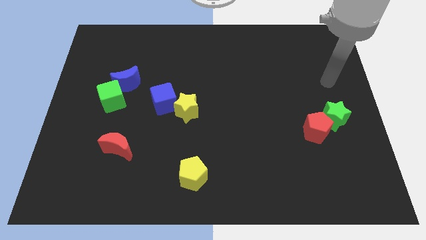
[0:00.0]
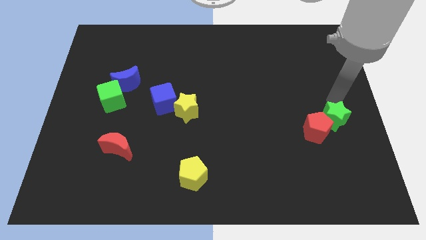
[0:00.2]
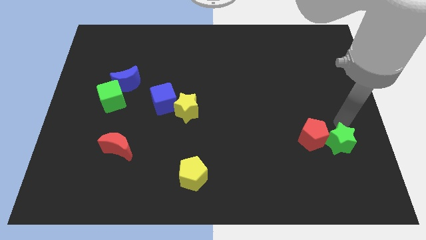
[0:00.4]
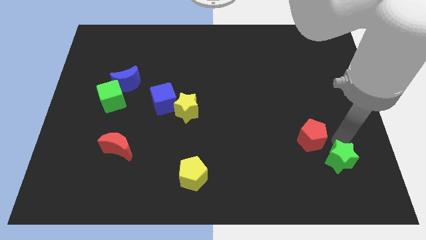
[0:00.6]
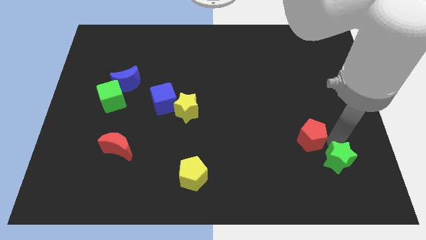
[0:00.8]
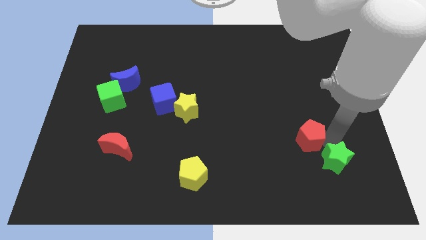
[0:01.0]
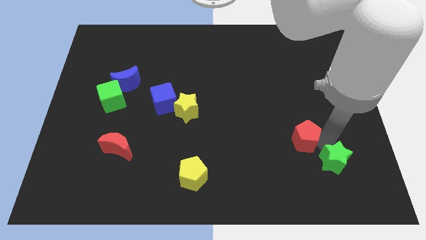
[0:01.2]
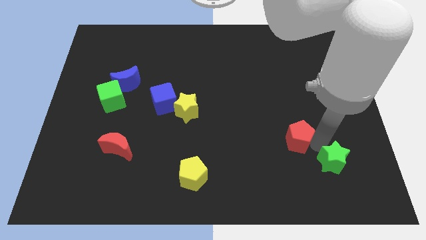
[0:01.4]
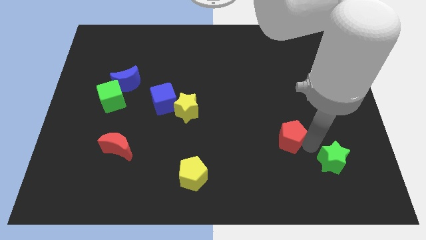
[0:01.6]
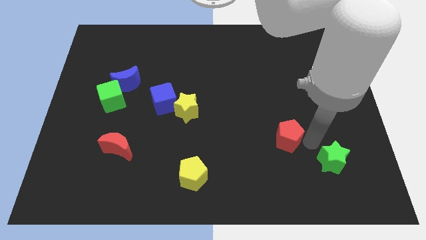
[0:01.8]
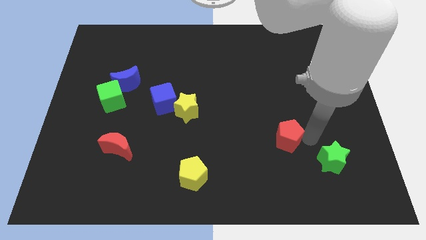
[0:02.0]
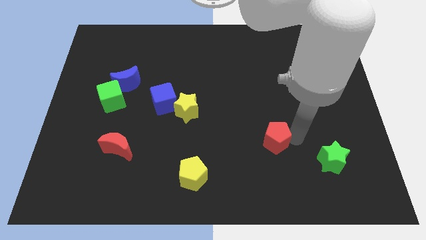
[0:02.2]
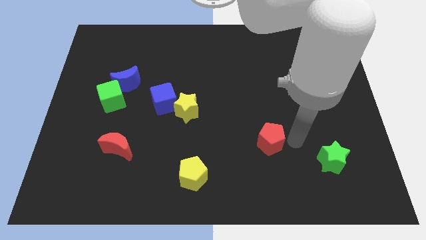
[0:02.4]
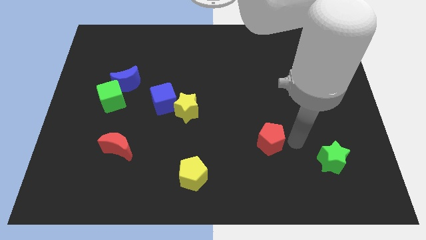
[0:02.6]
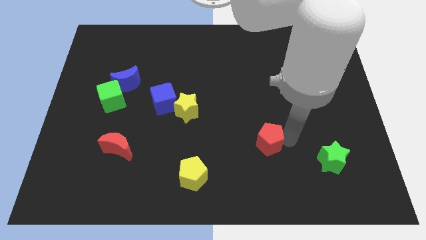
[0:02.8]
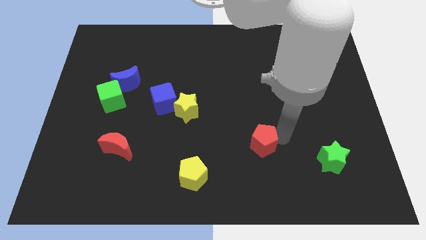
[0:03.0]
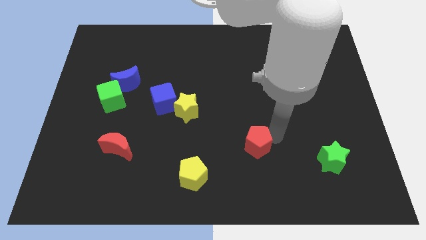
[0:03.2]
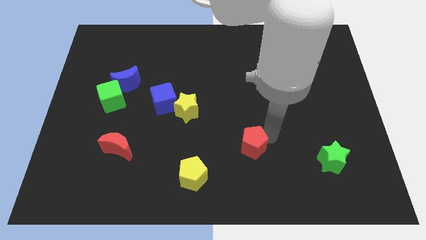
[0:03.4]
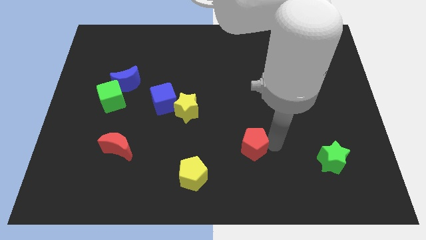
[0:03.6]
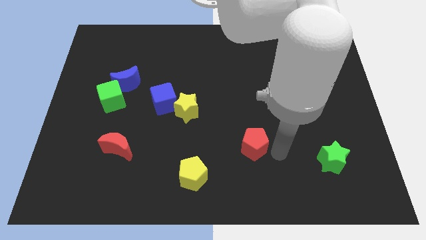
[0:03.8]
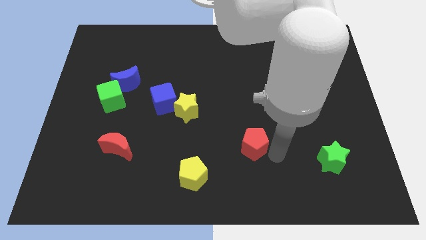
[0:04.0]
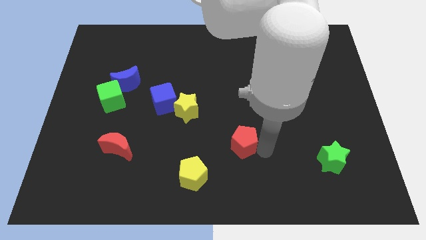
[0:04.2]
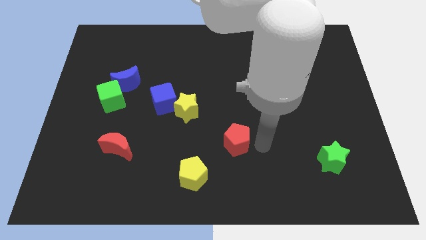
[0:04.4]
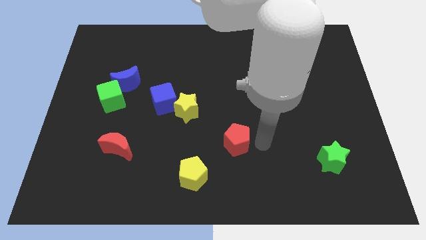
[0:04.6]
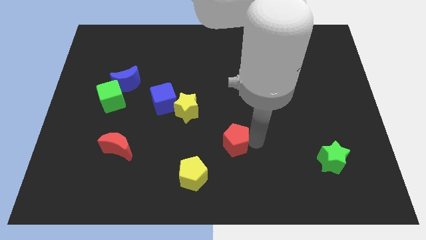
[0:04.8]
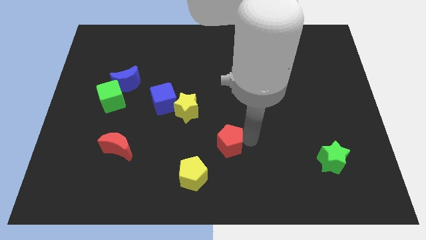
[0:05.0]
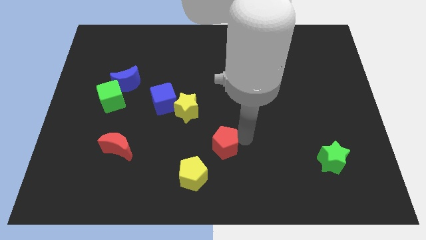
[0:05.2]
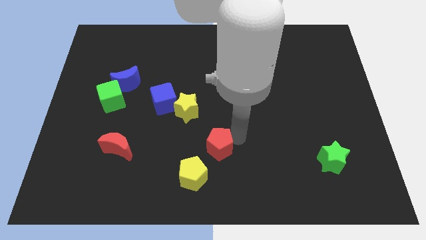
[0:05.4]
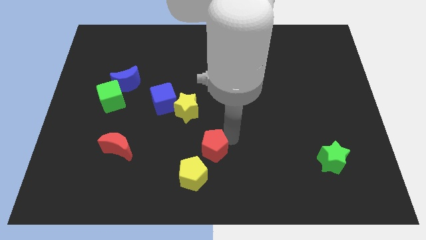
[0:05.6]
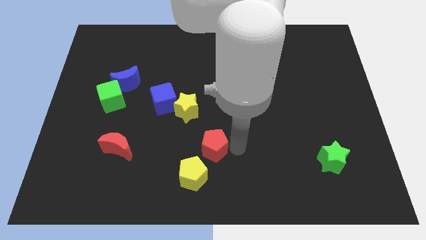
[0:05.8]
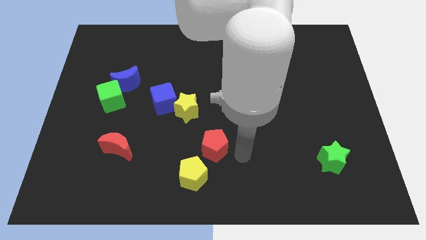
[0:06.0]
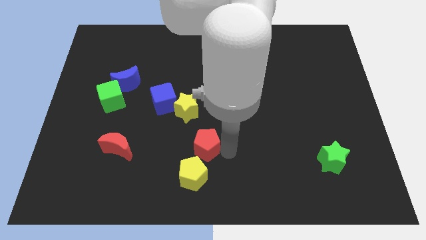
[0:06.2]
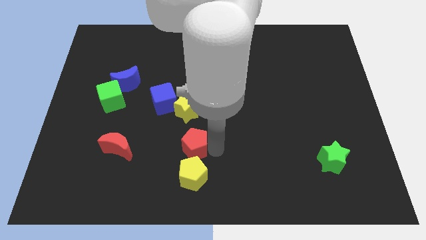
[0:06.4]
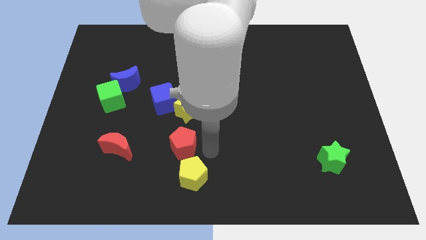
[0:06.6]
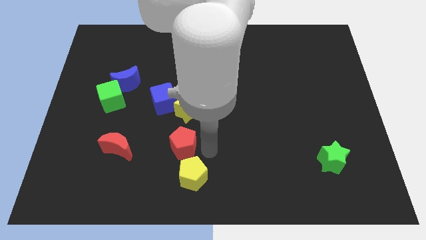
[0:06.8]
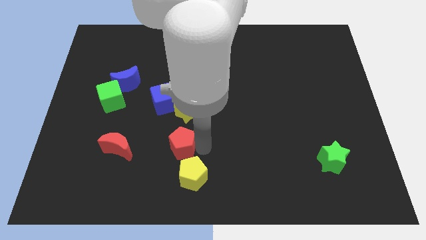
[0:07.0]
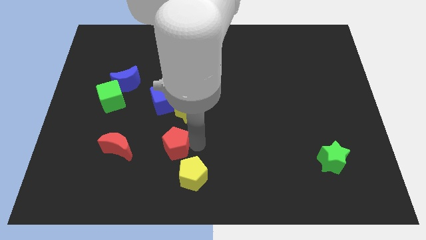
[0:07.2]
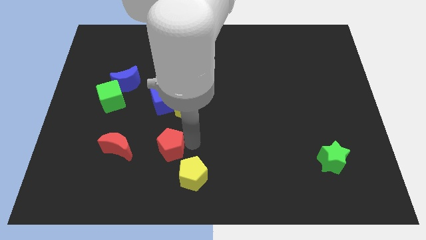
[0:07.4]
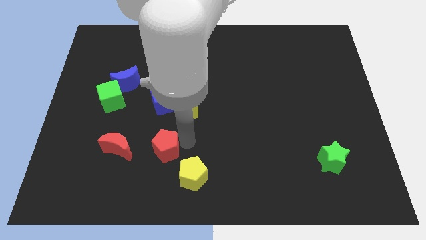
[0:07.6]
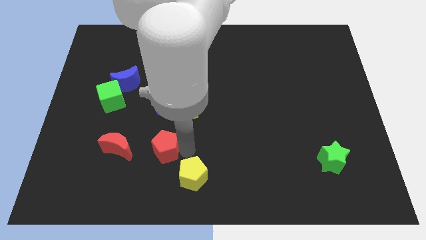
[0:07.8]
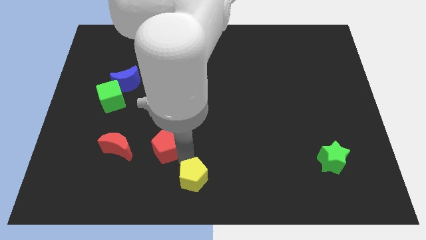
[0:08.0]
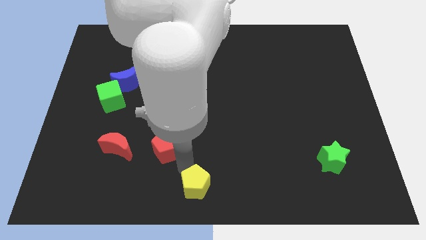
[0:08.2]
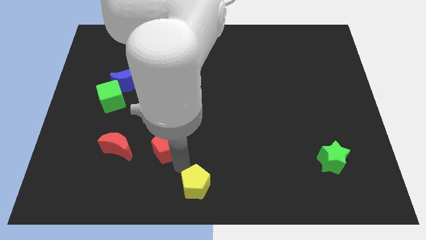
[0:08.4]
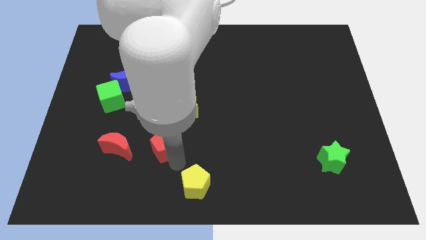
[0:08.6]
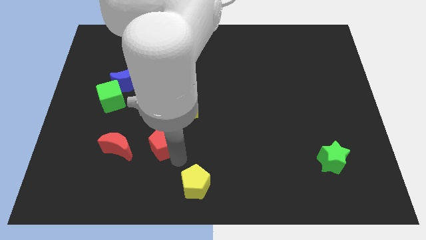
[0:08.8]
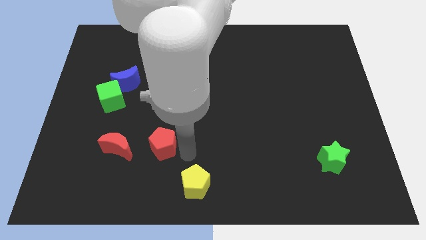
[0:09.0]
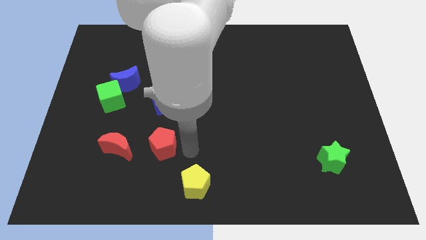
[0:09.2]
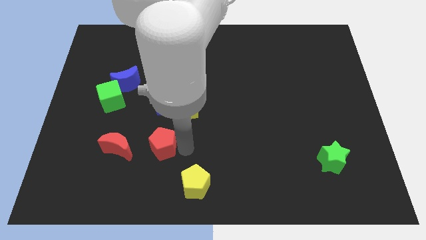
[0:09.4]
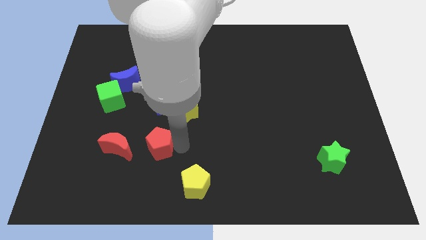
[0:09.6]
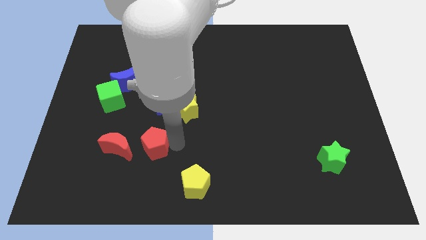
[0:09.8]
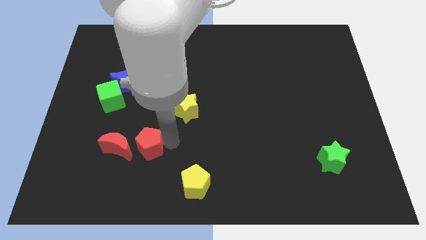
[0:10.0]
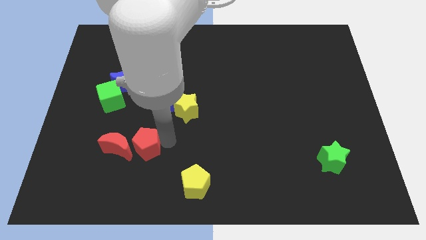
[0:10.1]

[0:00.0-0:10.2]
move the red pentagon to the red moon

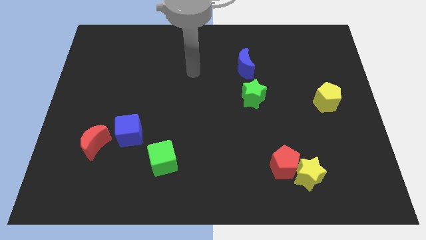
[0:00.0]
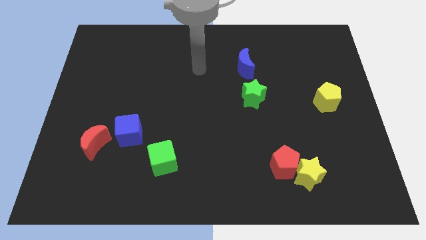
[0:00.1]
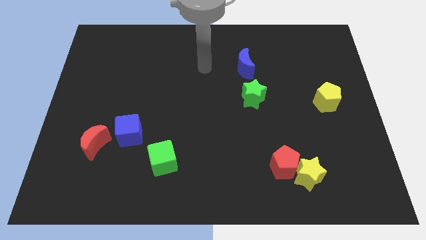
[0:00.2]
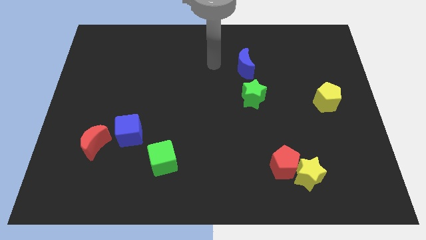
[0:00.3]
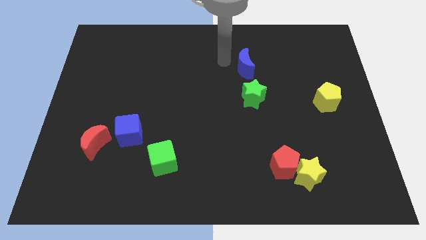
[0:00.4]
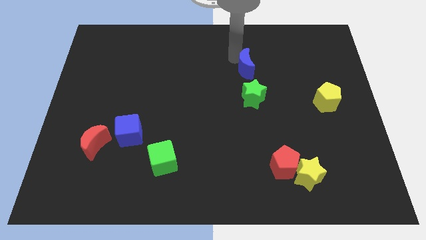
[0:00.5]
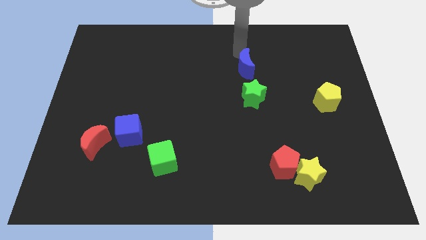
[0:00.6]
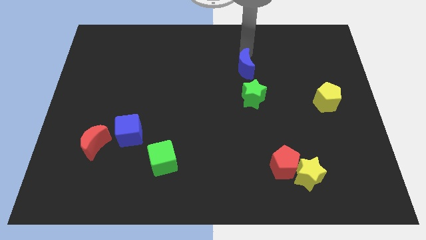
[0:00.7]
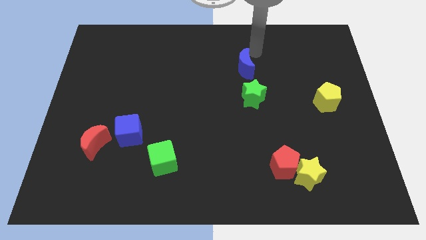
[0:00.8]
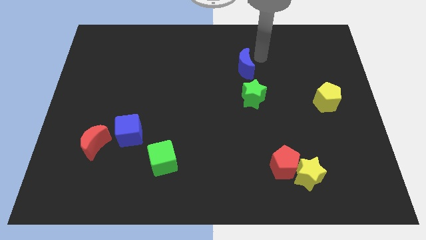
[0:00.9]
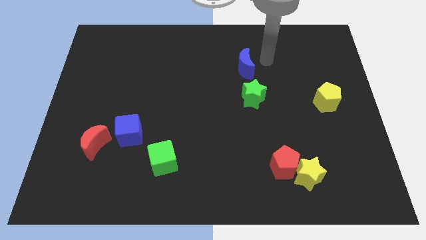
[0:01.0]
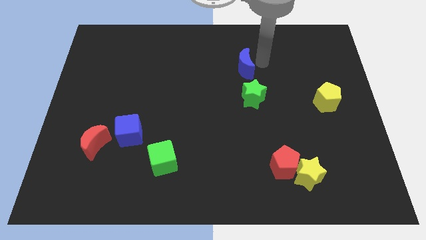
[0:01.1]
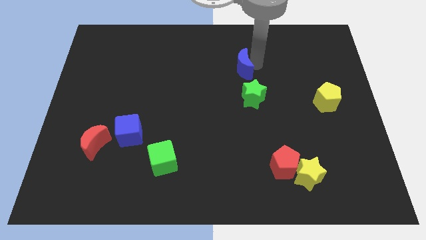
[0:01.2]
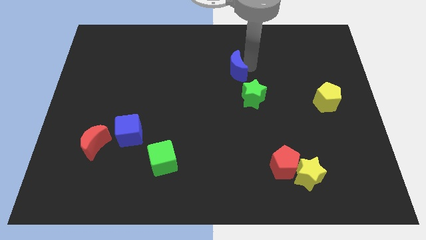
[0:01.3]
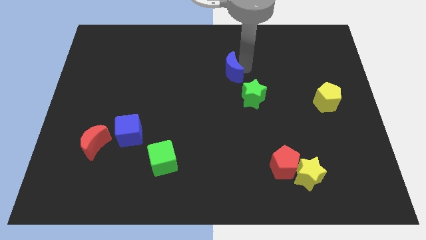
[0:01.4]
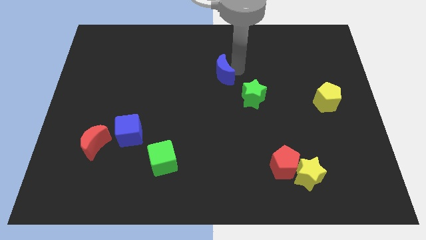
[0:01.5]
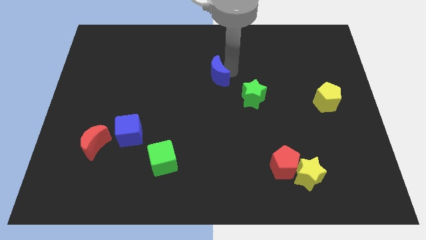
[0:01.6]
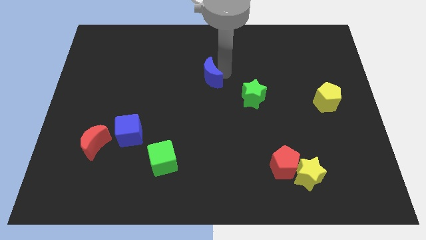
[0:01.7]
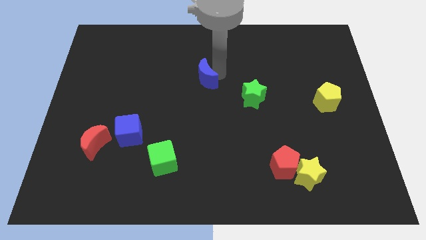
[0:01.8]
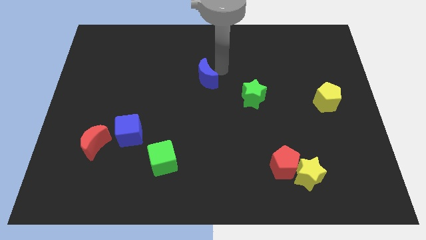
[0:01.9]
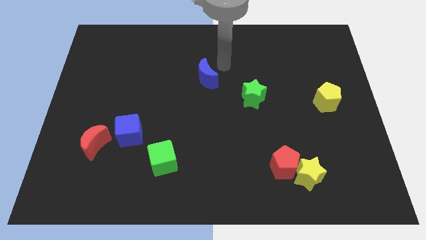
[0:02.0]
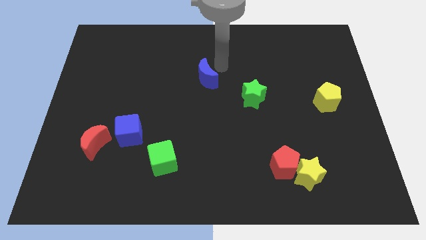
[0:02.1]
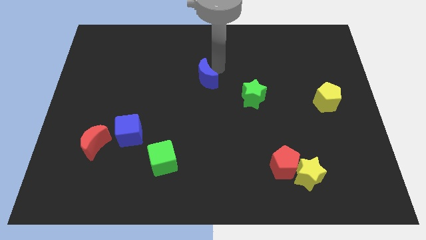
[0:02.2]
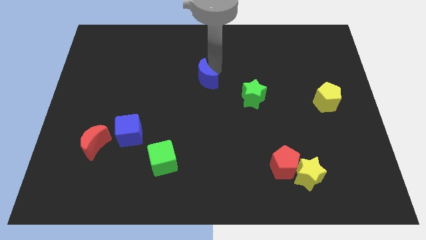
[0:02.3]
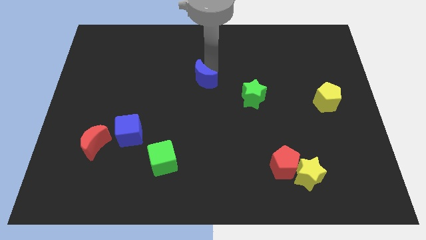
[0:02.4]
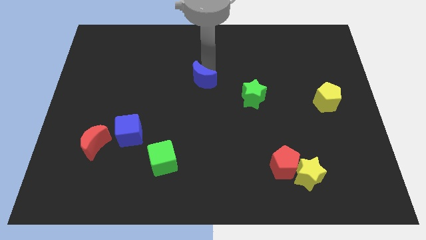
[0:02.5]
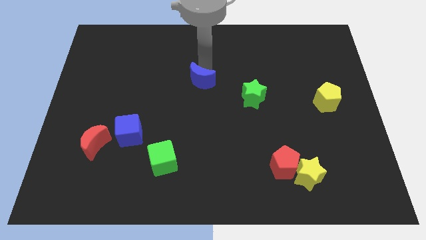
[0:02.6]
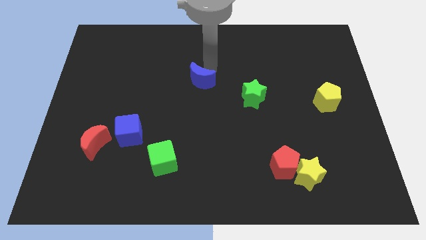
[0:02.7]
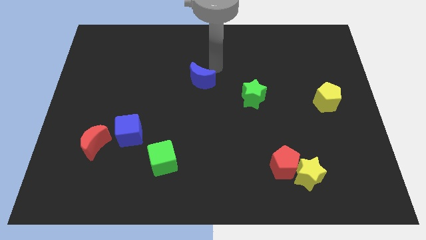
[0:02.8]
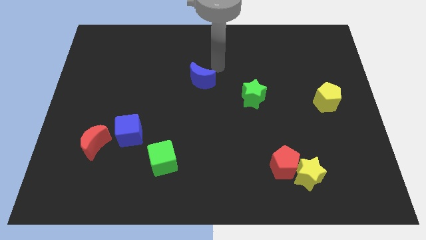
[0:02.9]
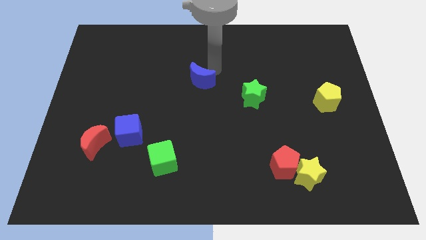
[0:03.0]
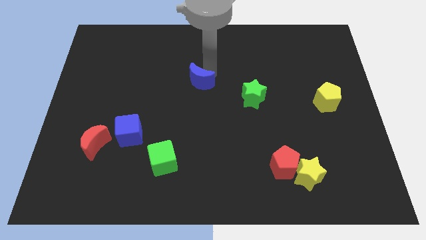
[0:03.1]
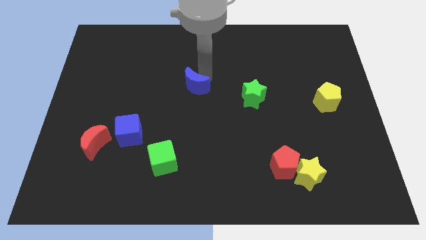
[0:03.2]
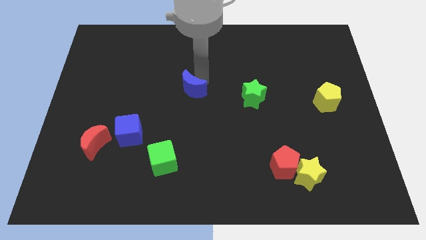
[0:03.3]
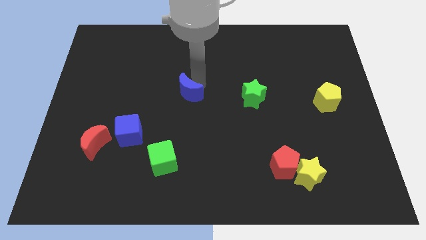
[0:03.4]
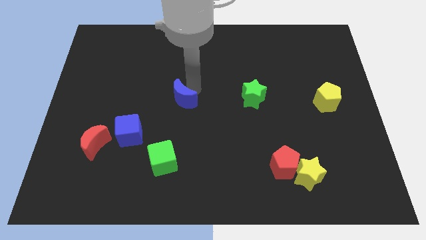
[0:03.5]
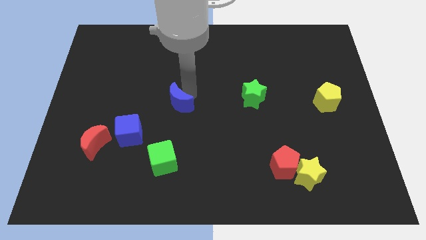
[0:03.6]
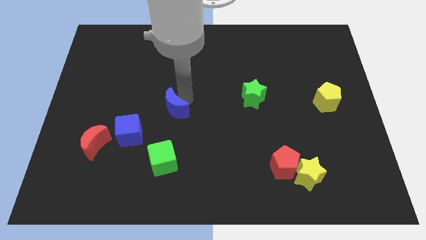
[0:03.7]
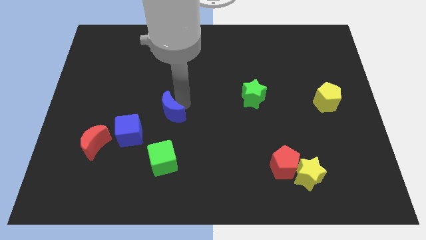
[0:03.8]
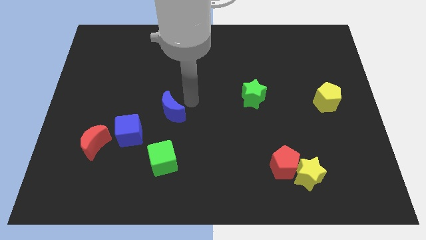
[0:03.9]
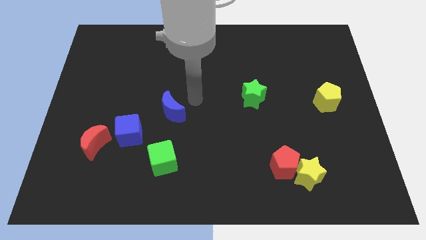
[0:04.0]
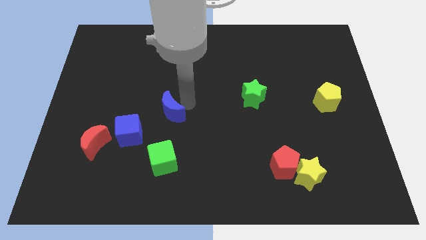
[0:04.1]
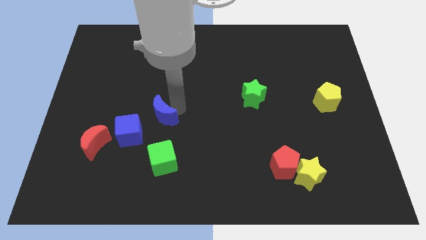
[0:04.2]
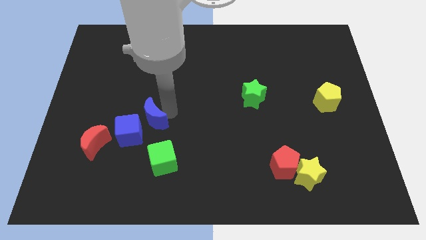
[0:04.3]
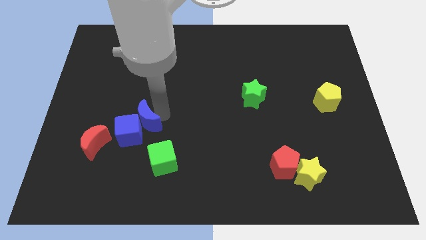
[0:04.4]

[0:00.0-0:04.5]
move the blue moon close to the blue cube
